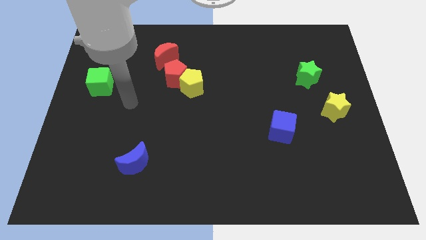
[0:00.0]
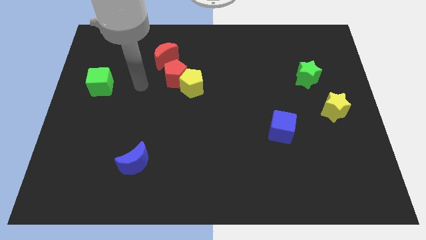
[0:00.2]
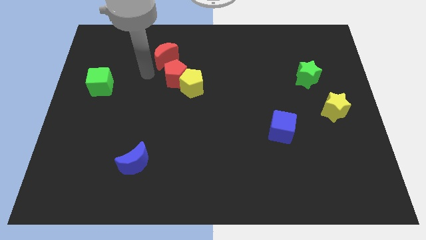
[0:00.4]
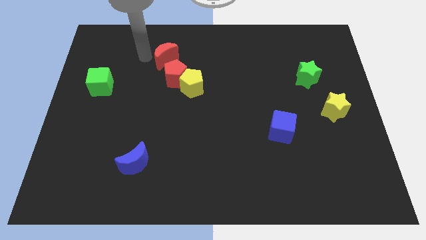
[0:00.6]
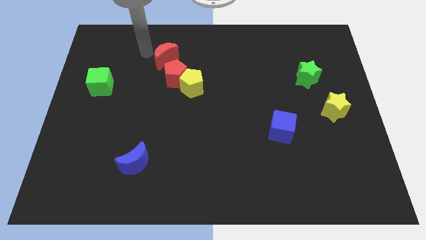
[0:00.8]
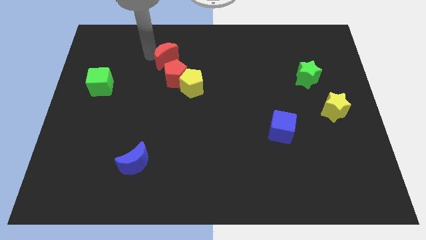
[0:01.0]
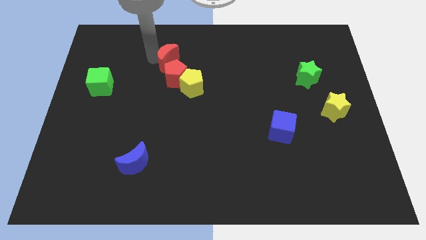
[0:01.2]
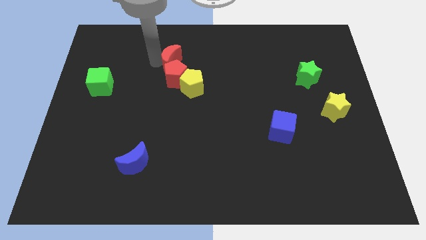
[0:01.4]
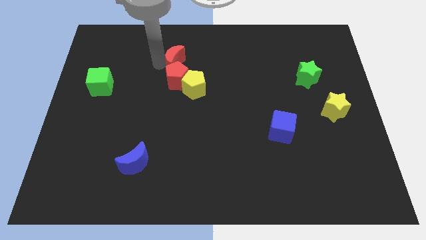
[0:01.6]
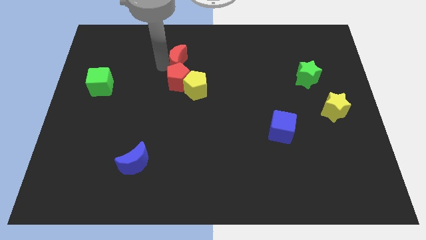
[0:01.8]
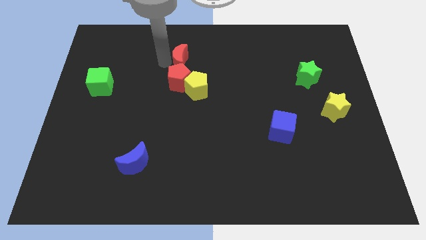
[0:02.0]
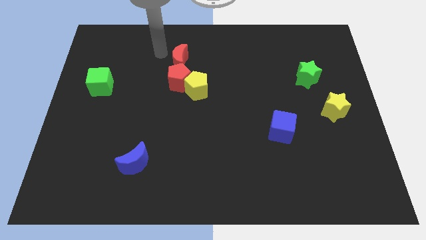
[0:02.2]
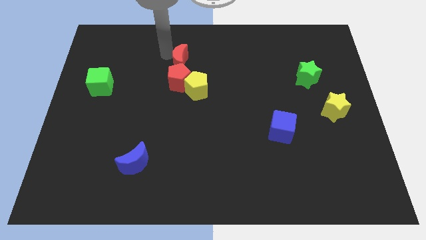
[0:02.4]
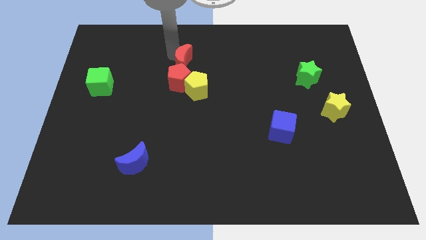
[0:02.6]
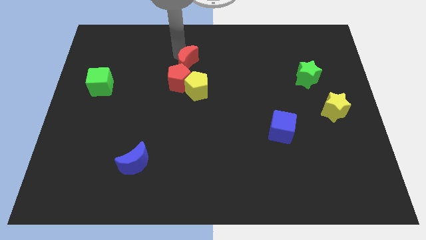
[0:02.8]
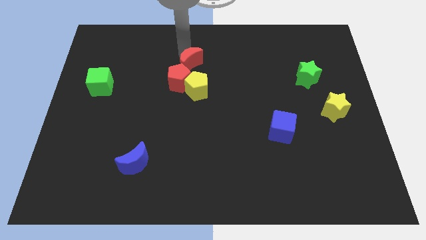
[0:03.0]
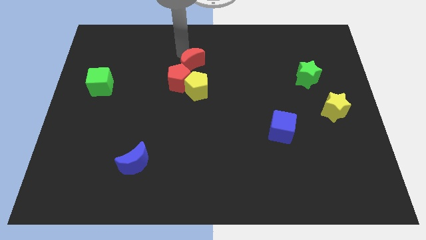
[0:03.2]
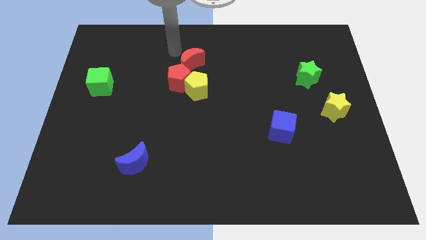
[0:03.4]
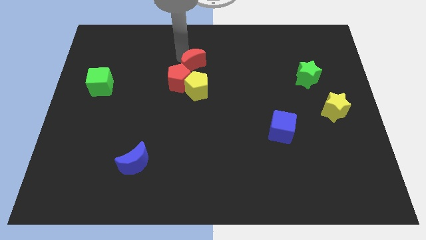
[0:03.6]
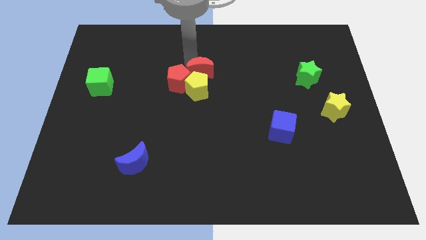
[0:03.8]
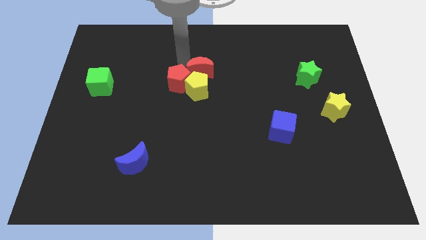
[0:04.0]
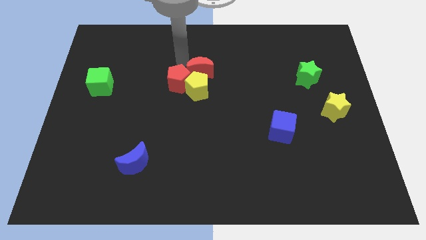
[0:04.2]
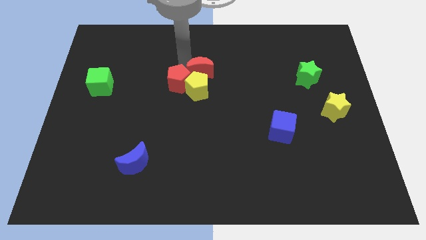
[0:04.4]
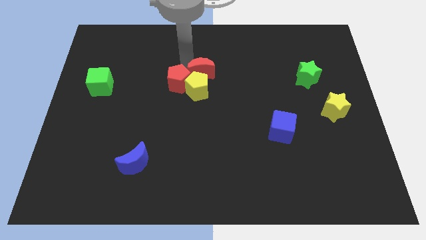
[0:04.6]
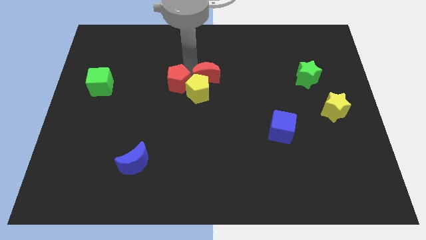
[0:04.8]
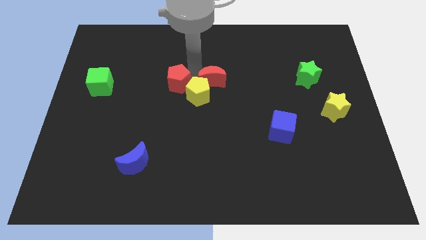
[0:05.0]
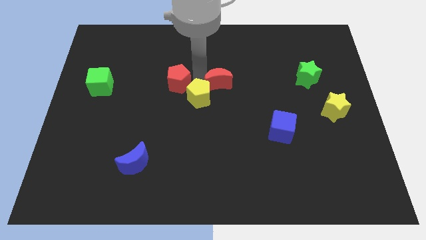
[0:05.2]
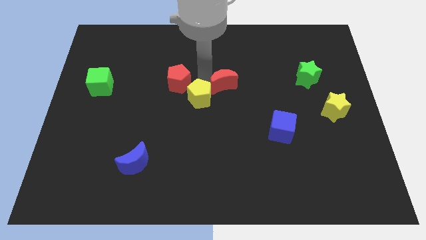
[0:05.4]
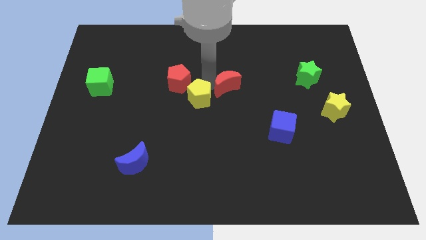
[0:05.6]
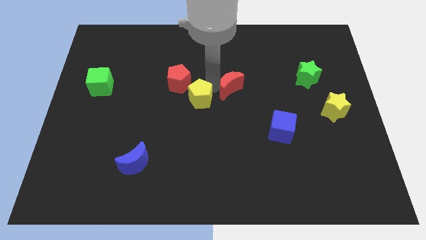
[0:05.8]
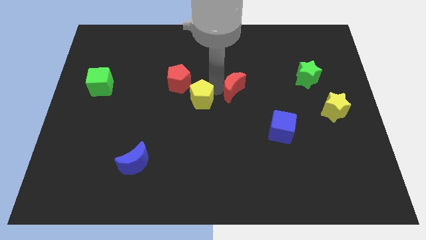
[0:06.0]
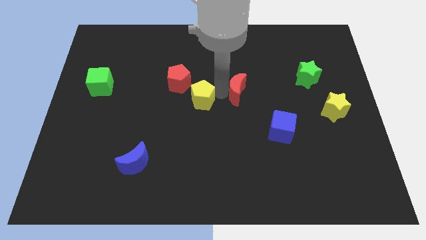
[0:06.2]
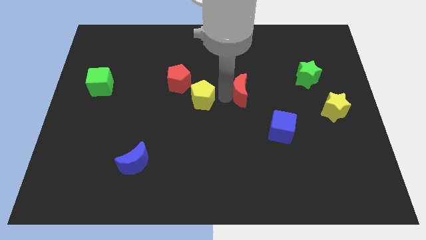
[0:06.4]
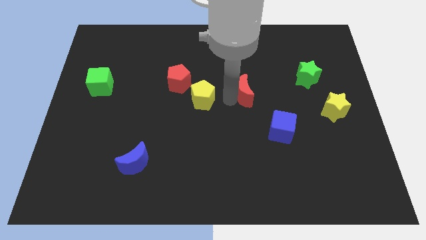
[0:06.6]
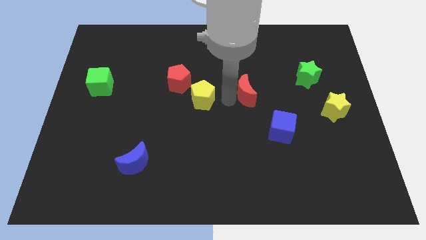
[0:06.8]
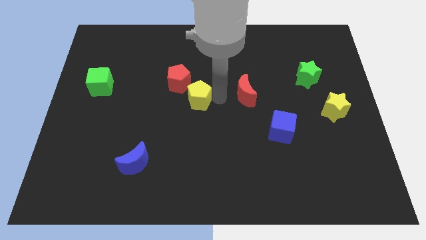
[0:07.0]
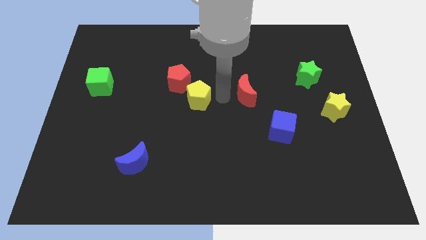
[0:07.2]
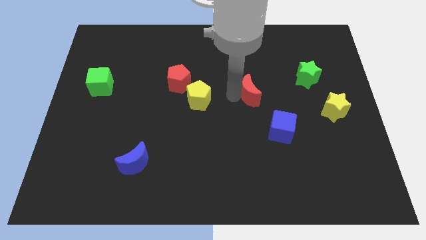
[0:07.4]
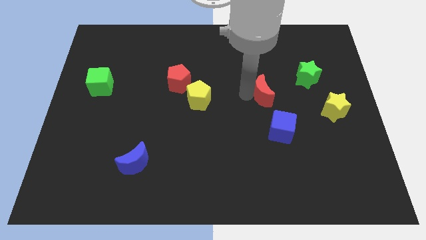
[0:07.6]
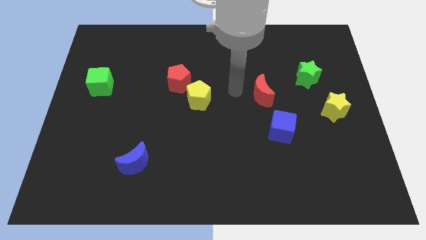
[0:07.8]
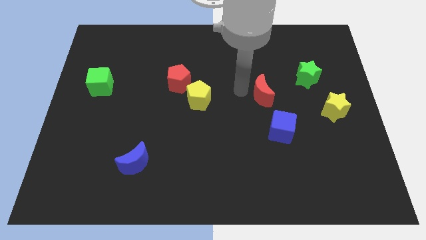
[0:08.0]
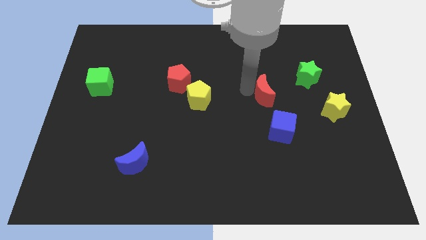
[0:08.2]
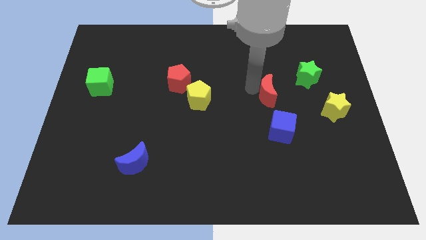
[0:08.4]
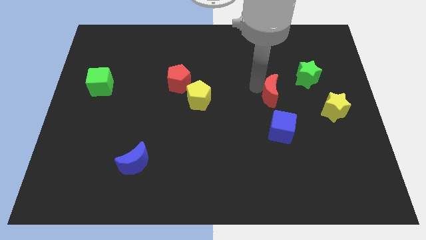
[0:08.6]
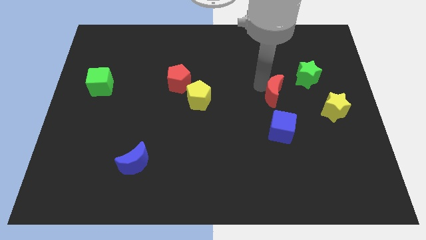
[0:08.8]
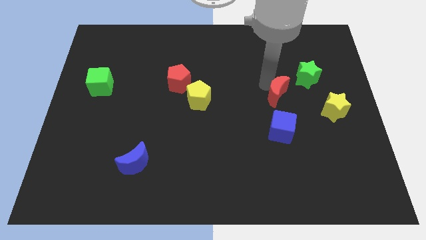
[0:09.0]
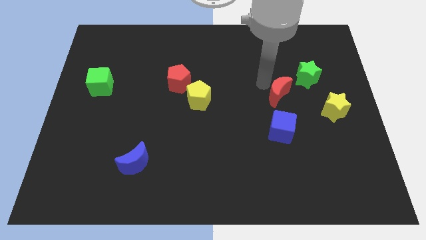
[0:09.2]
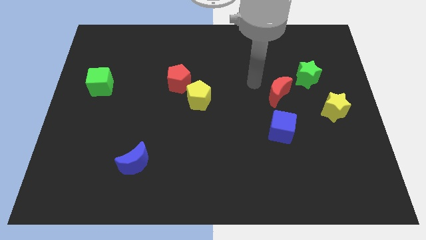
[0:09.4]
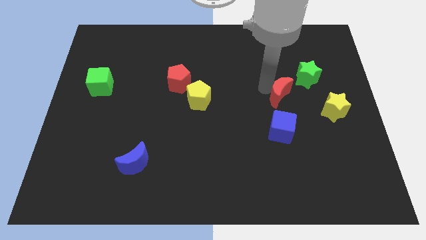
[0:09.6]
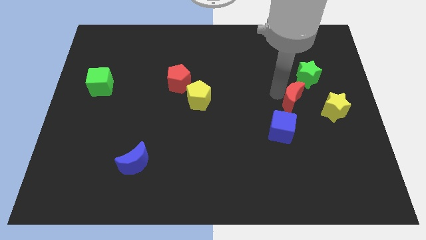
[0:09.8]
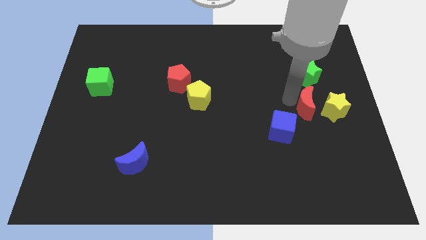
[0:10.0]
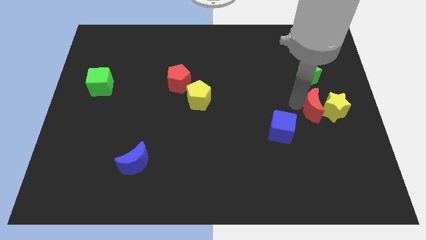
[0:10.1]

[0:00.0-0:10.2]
put the red moon next to the yellow star

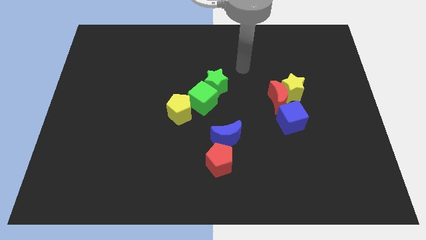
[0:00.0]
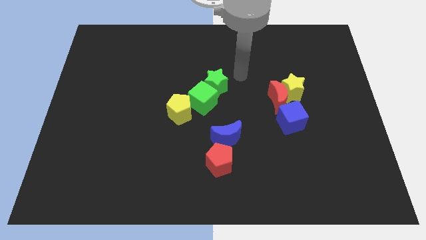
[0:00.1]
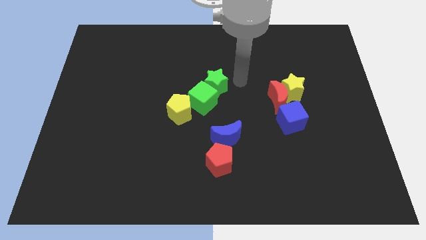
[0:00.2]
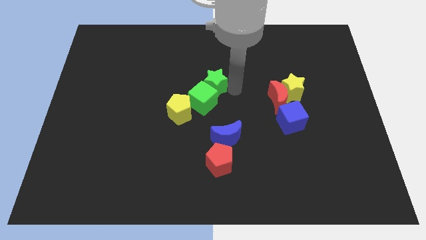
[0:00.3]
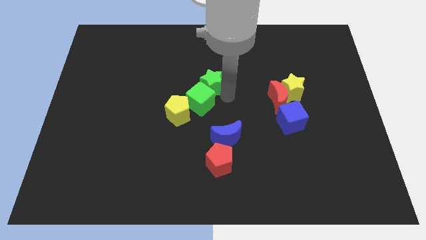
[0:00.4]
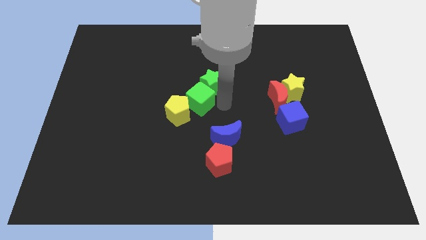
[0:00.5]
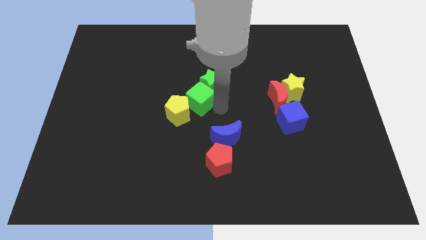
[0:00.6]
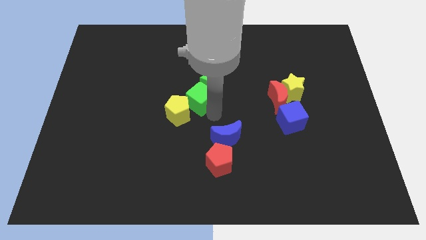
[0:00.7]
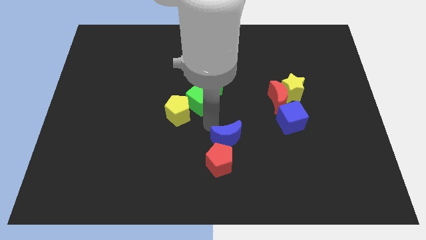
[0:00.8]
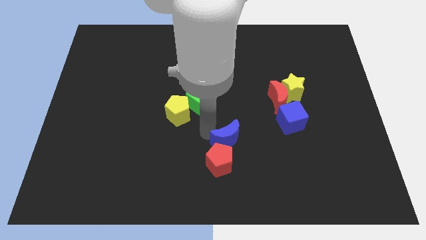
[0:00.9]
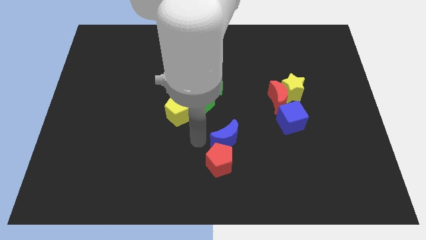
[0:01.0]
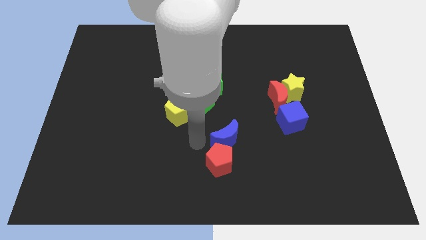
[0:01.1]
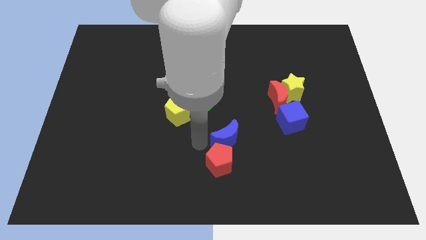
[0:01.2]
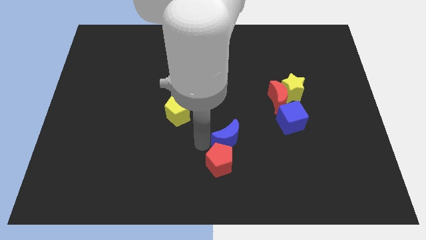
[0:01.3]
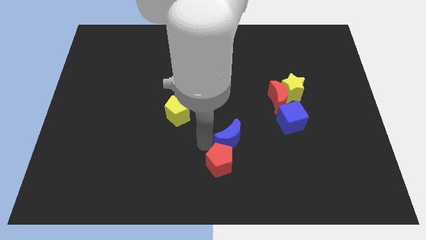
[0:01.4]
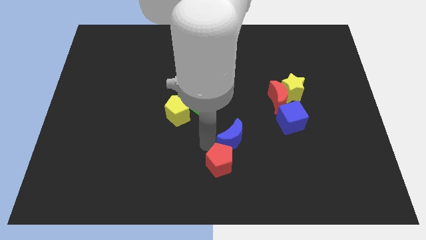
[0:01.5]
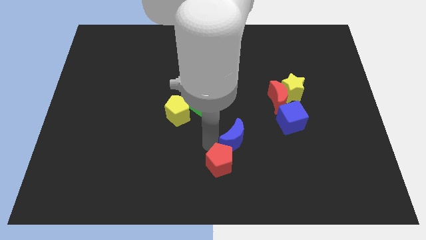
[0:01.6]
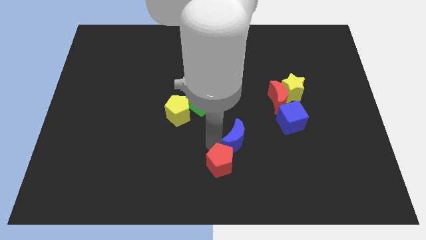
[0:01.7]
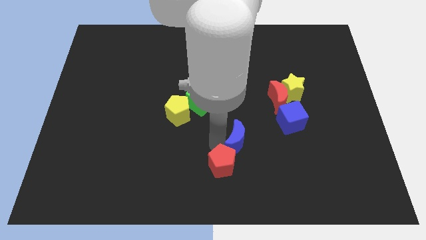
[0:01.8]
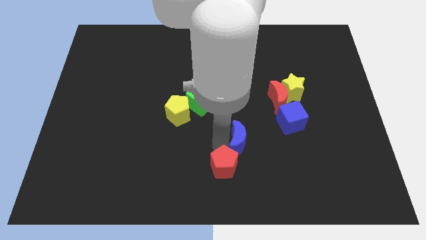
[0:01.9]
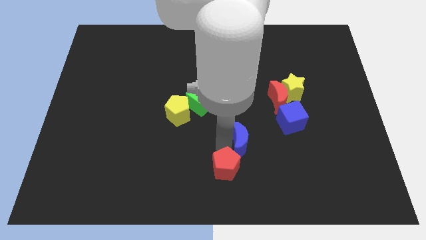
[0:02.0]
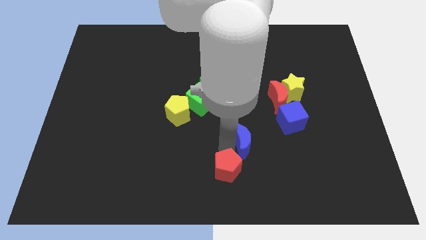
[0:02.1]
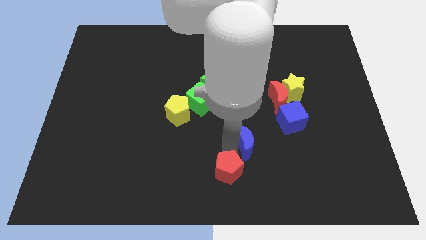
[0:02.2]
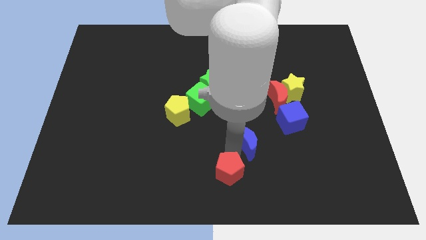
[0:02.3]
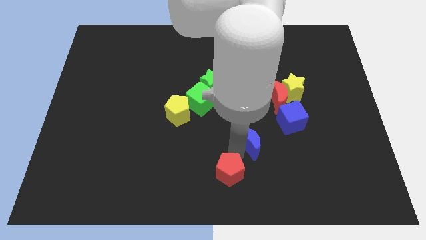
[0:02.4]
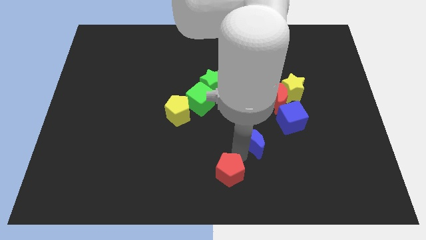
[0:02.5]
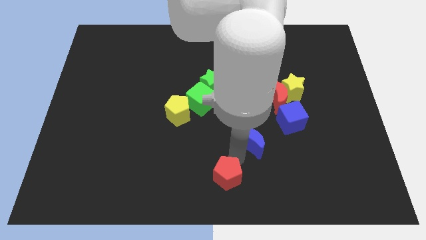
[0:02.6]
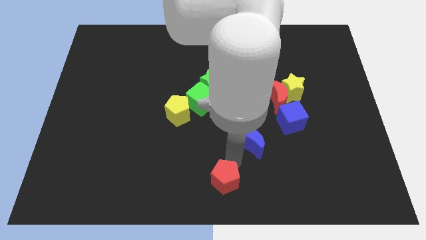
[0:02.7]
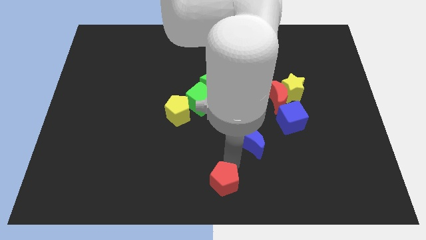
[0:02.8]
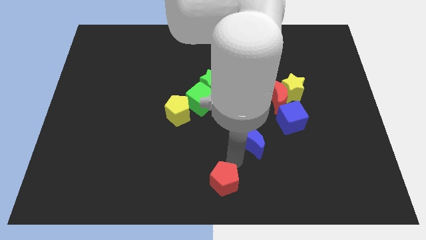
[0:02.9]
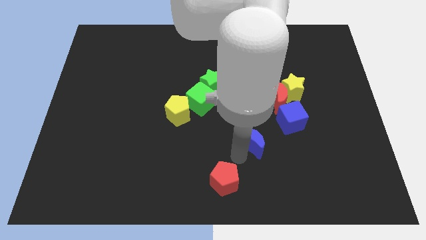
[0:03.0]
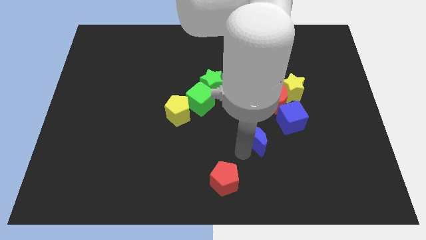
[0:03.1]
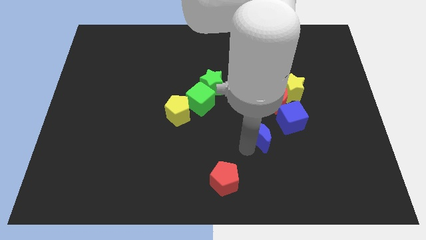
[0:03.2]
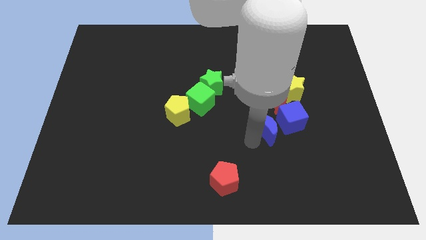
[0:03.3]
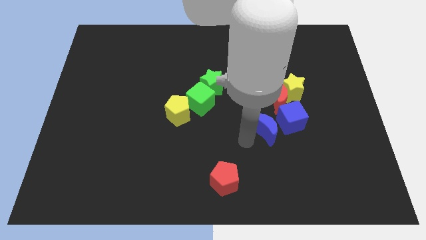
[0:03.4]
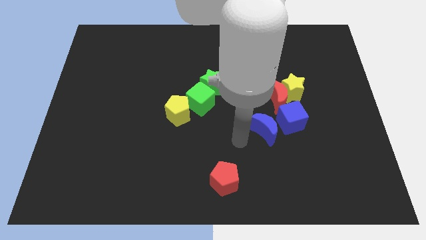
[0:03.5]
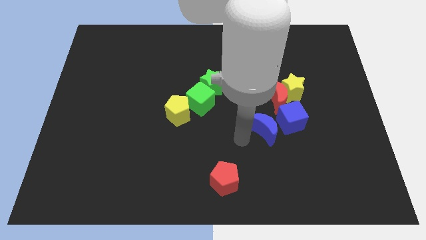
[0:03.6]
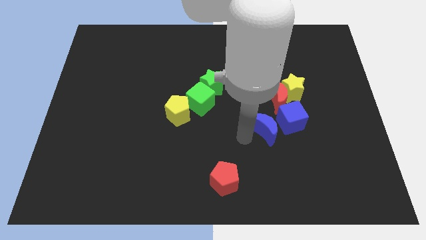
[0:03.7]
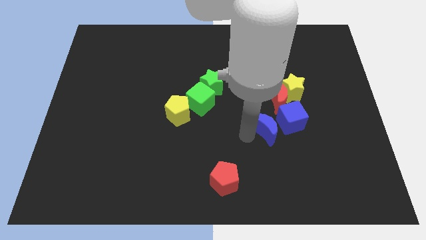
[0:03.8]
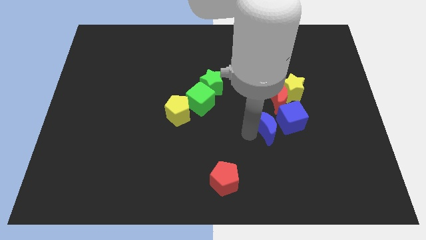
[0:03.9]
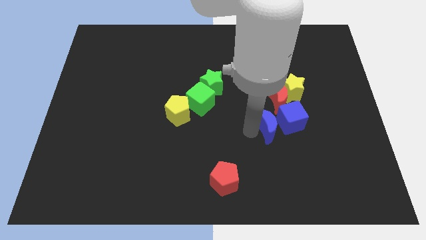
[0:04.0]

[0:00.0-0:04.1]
put the blue moon close to the blue cube
